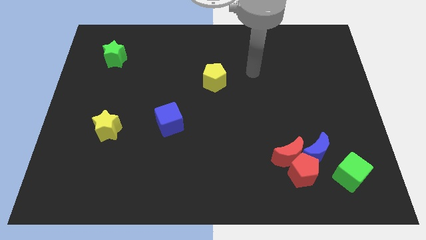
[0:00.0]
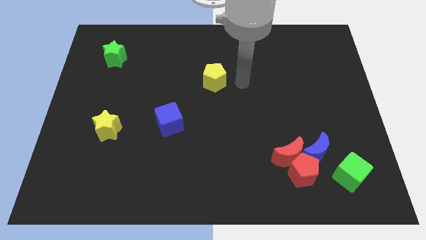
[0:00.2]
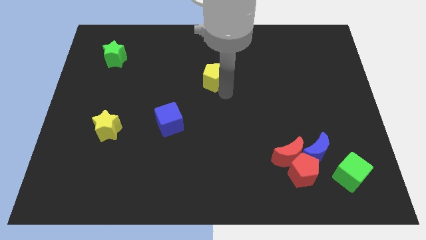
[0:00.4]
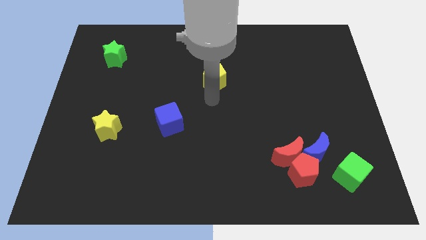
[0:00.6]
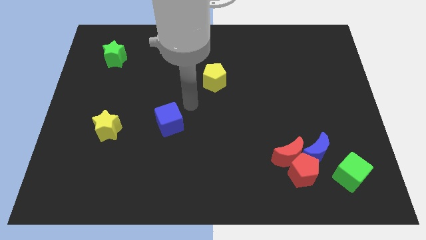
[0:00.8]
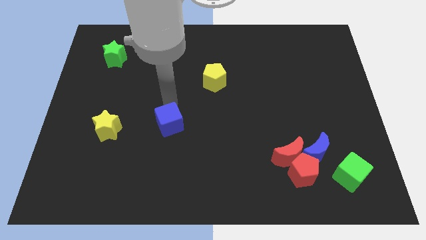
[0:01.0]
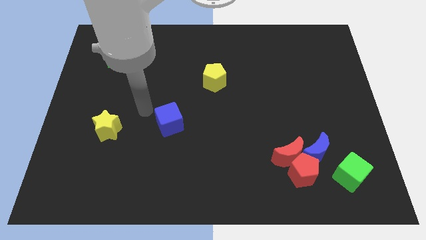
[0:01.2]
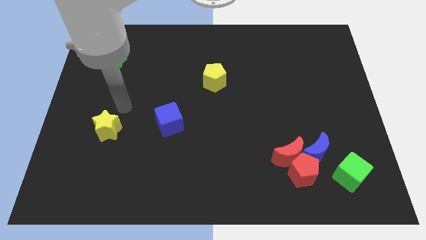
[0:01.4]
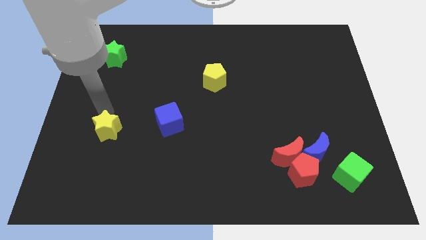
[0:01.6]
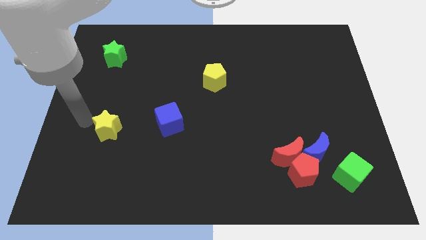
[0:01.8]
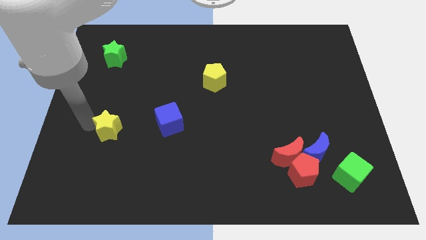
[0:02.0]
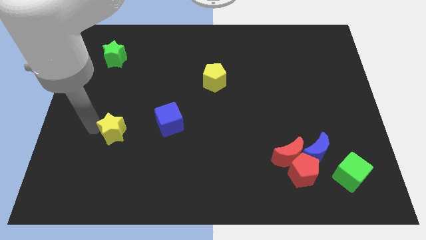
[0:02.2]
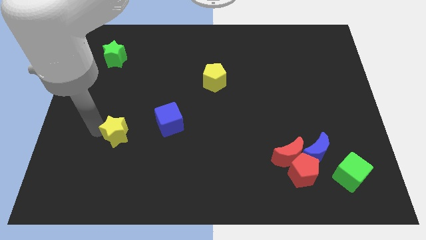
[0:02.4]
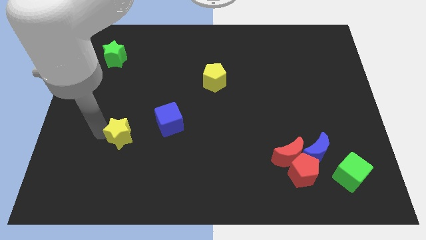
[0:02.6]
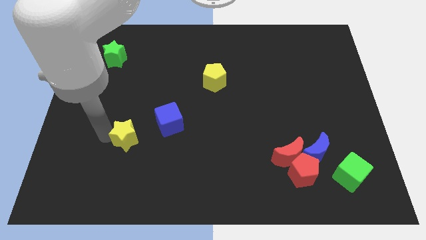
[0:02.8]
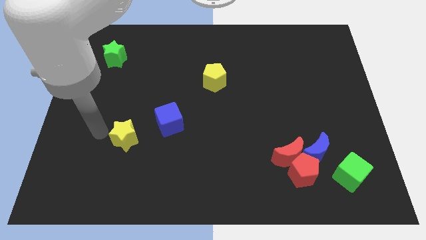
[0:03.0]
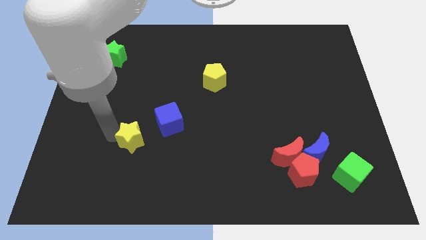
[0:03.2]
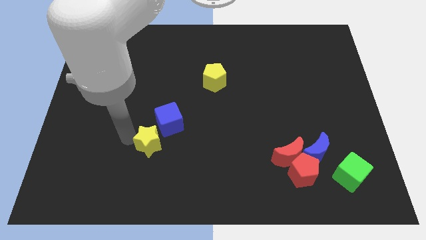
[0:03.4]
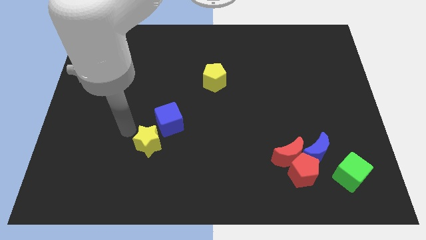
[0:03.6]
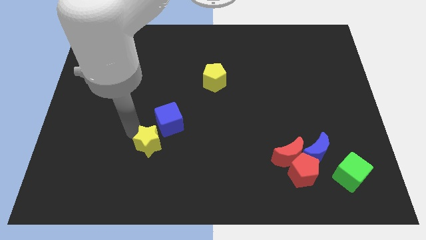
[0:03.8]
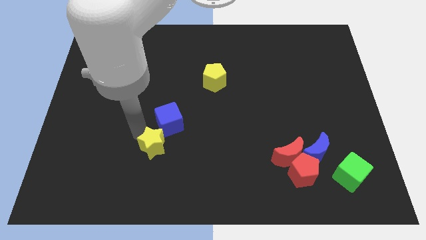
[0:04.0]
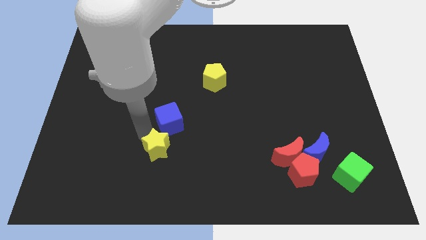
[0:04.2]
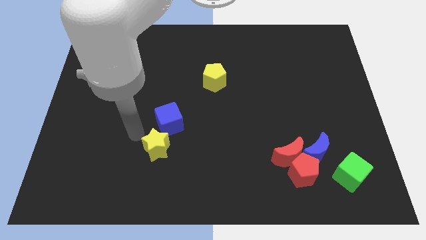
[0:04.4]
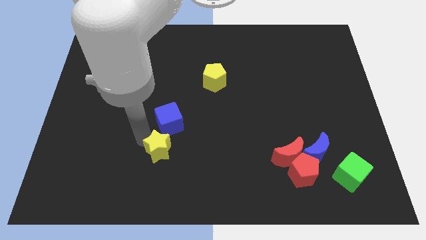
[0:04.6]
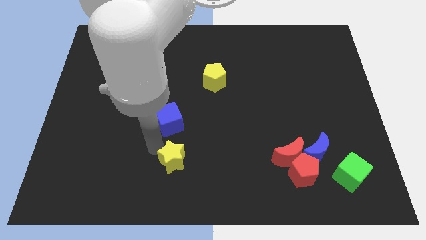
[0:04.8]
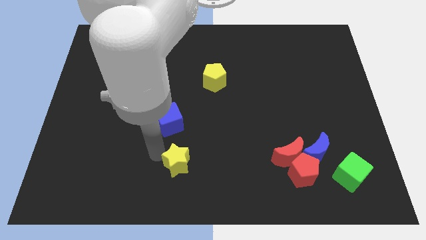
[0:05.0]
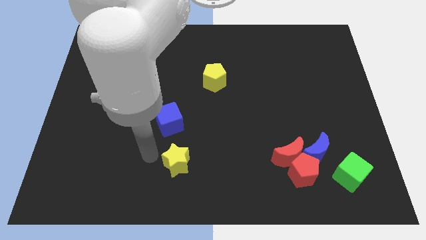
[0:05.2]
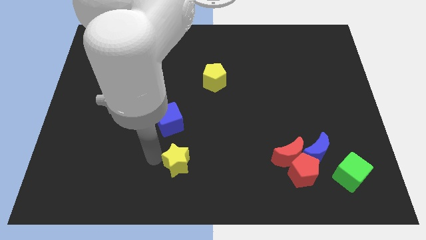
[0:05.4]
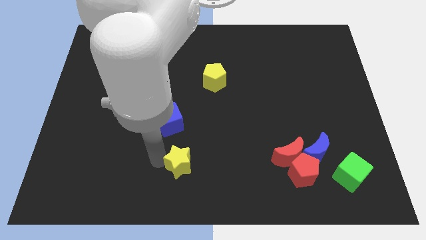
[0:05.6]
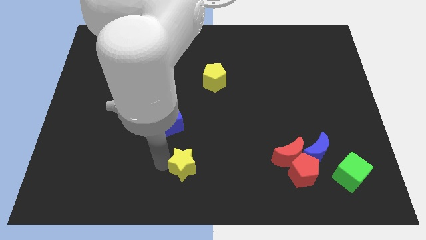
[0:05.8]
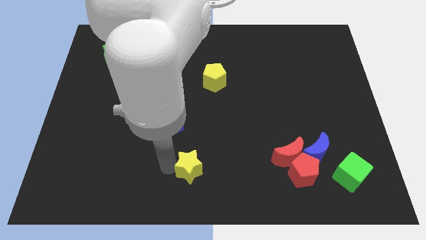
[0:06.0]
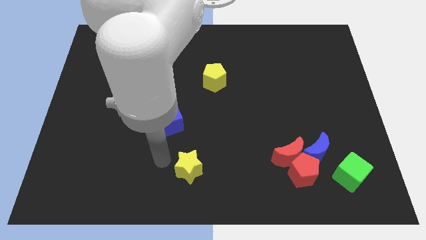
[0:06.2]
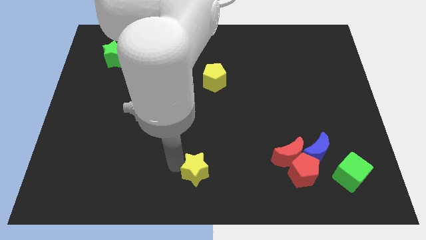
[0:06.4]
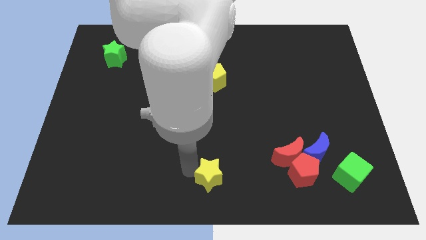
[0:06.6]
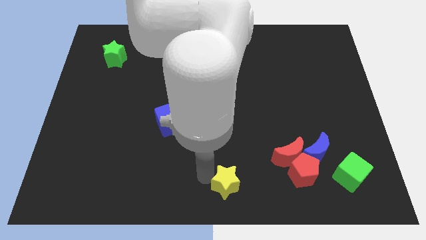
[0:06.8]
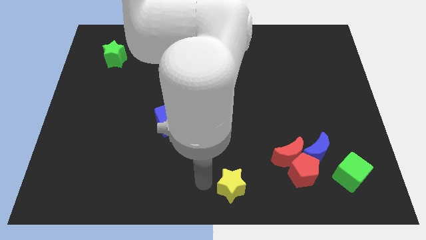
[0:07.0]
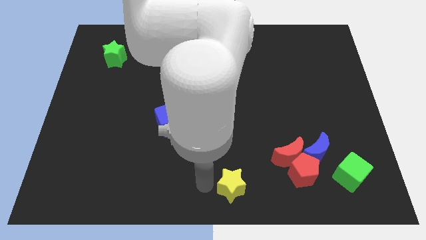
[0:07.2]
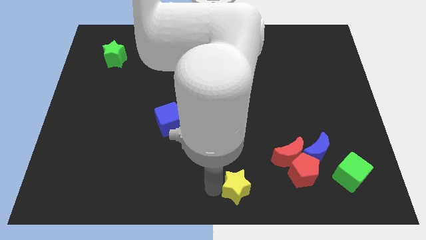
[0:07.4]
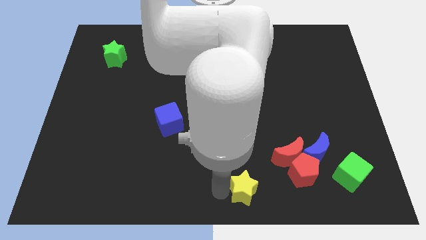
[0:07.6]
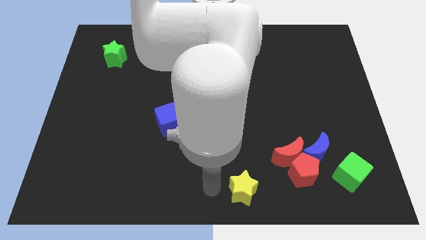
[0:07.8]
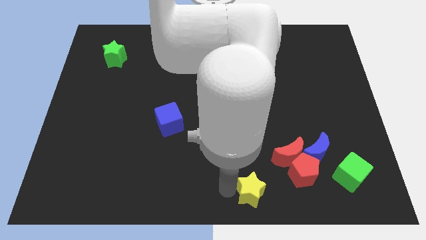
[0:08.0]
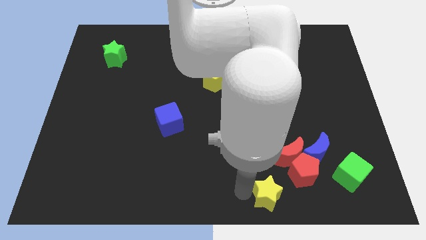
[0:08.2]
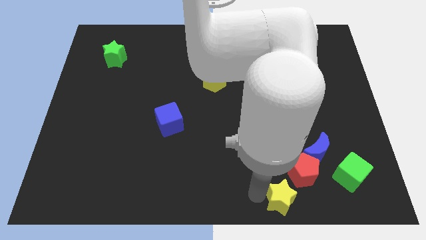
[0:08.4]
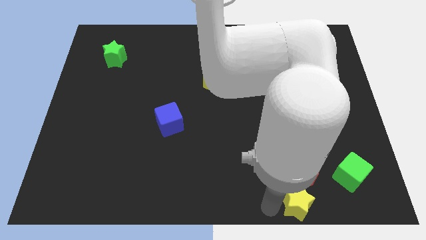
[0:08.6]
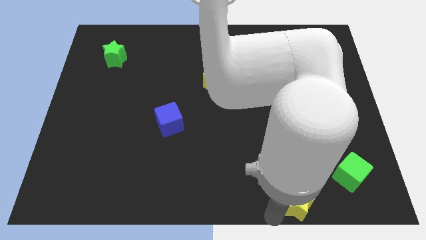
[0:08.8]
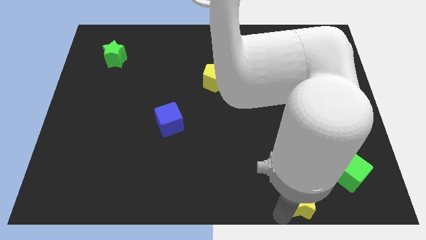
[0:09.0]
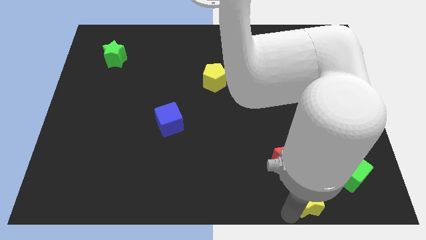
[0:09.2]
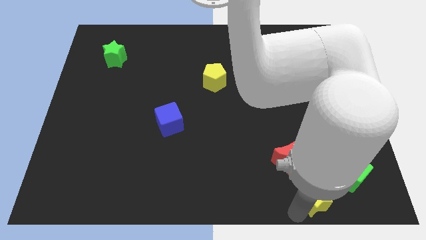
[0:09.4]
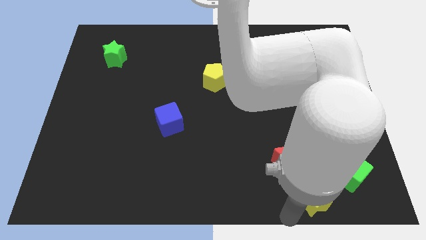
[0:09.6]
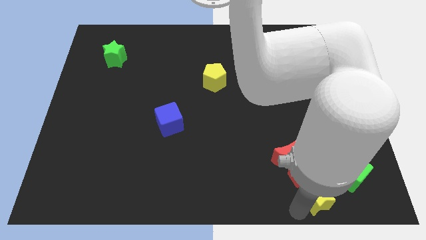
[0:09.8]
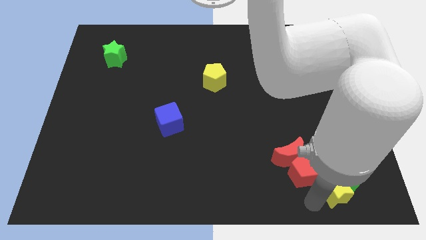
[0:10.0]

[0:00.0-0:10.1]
put the yellow star towards the green cube

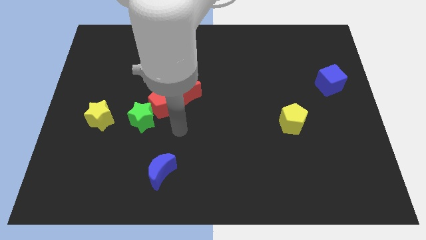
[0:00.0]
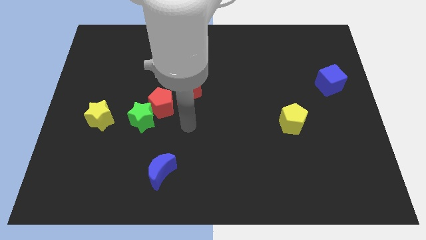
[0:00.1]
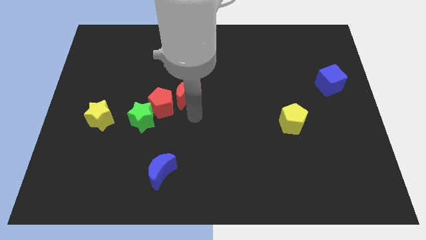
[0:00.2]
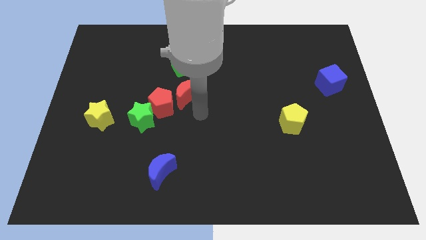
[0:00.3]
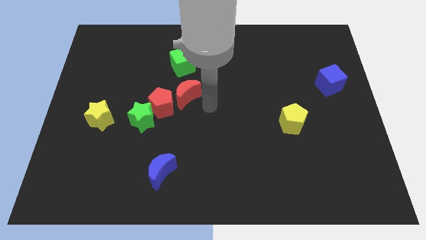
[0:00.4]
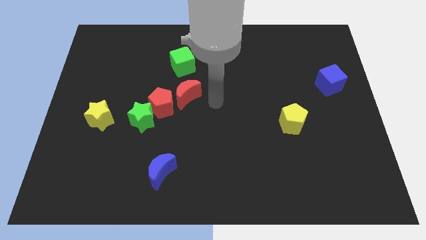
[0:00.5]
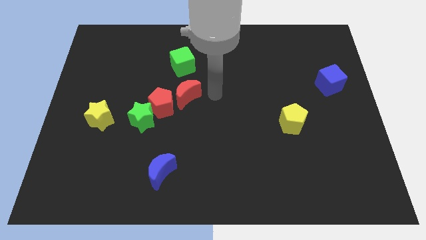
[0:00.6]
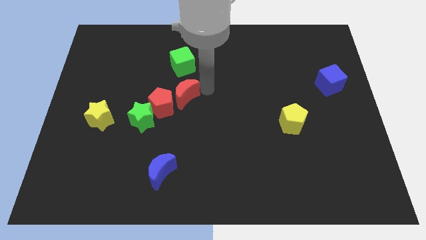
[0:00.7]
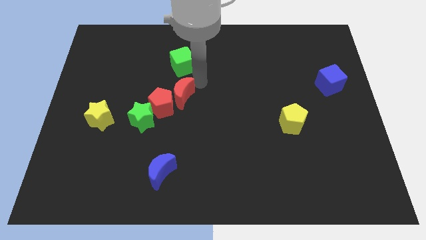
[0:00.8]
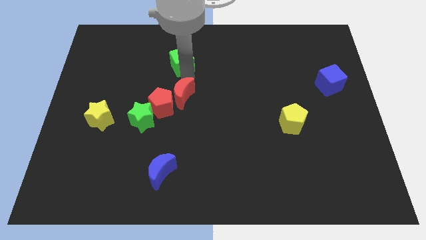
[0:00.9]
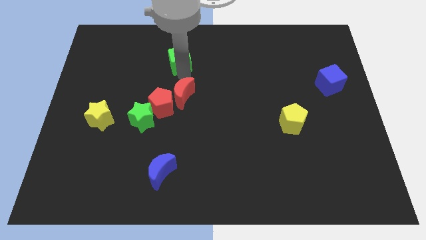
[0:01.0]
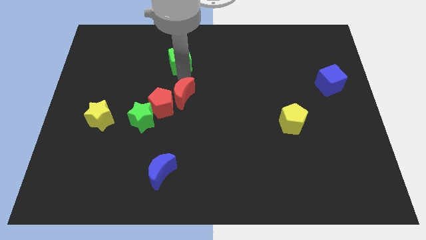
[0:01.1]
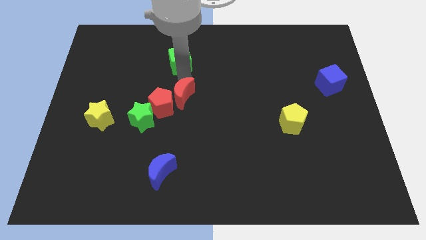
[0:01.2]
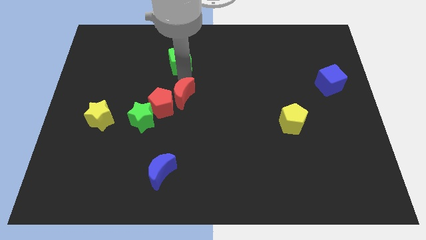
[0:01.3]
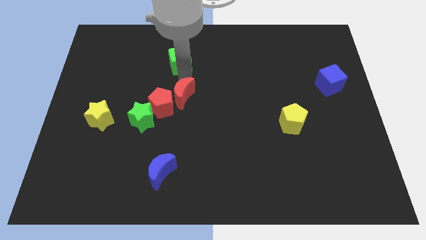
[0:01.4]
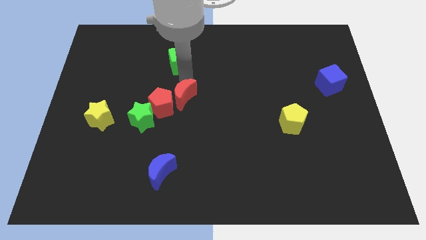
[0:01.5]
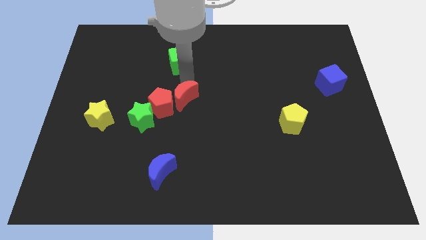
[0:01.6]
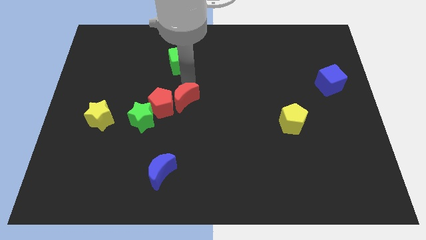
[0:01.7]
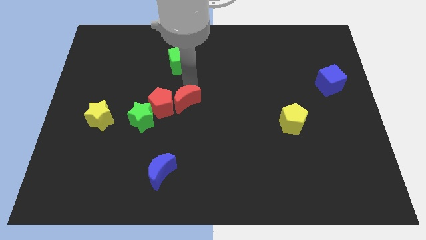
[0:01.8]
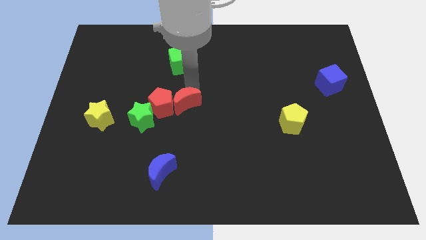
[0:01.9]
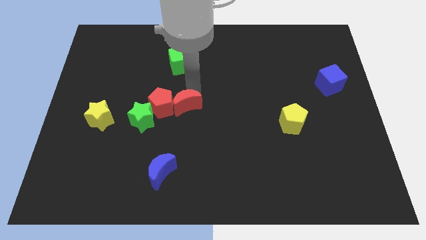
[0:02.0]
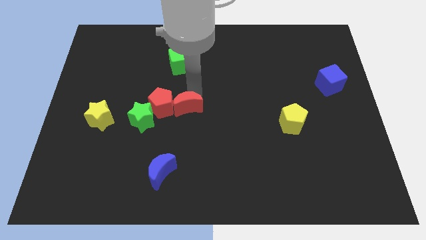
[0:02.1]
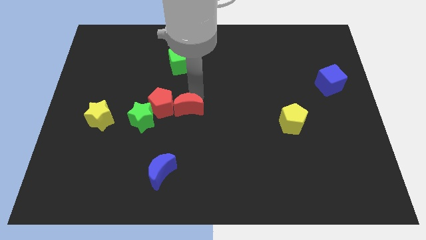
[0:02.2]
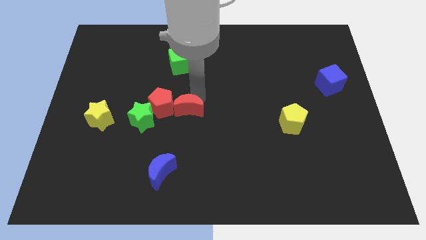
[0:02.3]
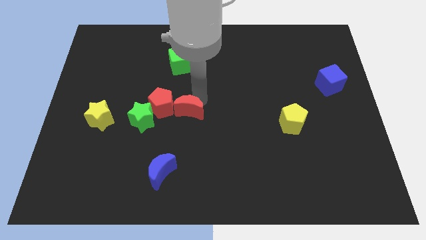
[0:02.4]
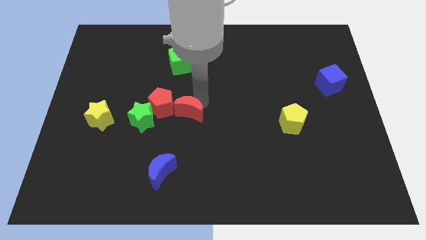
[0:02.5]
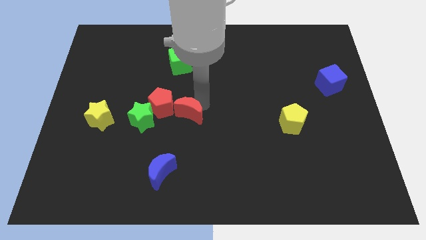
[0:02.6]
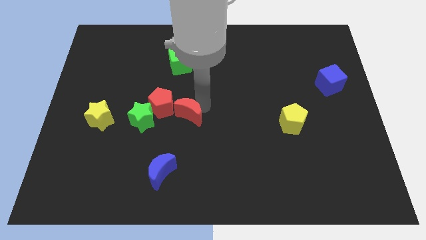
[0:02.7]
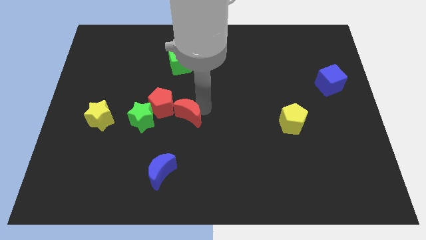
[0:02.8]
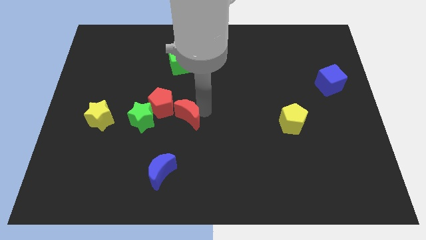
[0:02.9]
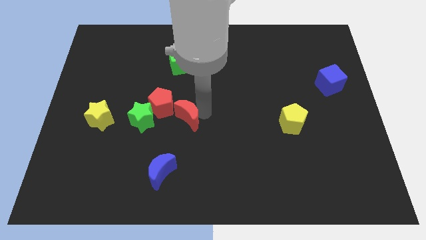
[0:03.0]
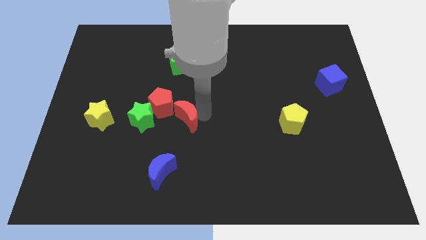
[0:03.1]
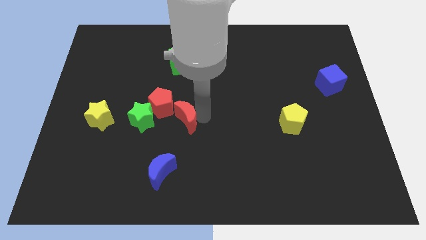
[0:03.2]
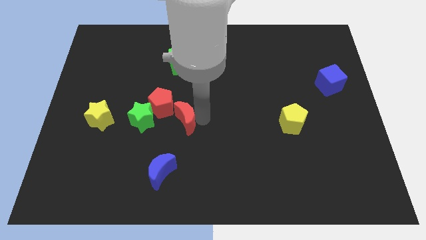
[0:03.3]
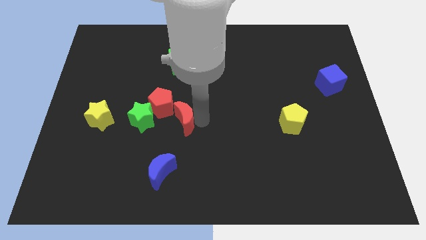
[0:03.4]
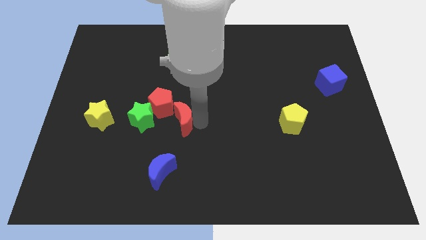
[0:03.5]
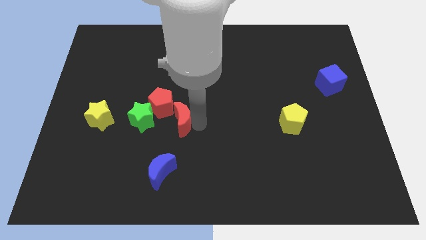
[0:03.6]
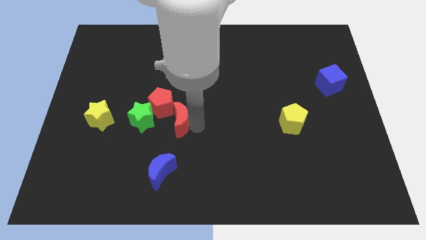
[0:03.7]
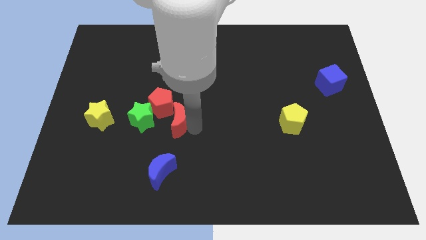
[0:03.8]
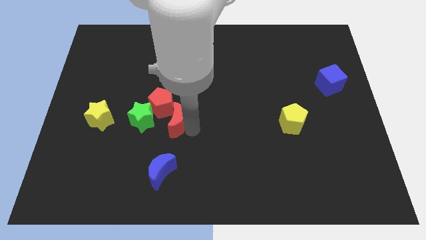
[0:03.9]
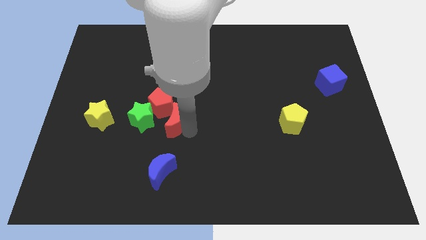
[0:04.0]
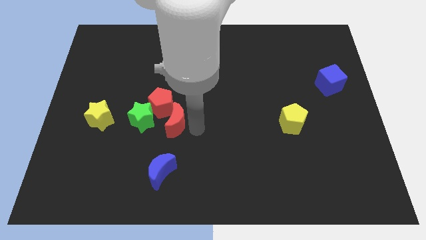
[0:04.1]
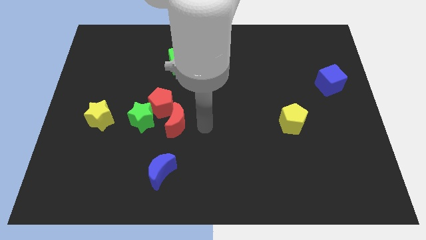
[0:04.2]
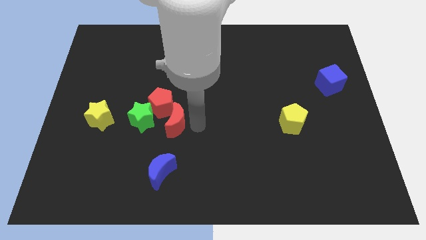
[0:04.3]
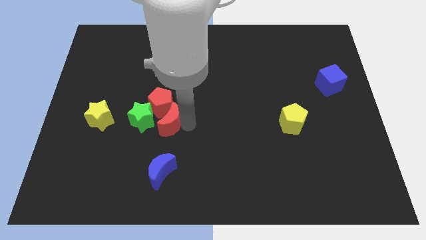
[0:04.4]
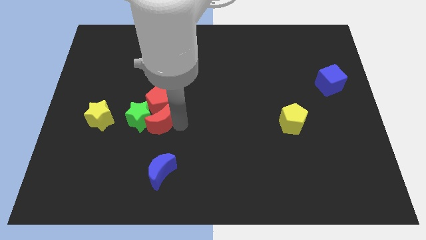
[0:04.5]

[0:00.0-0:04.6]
push the red moon next to the green star
